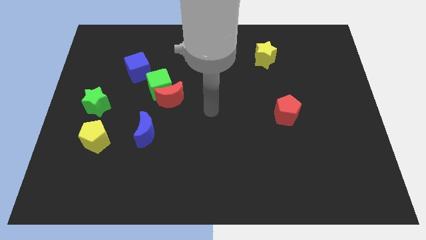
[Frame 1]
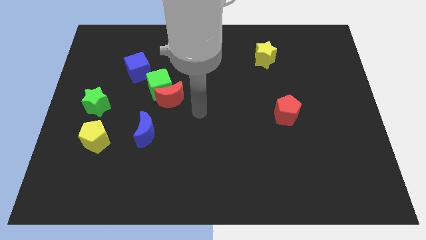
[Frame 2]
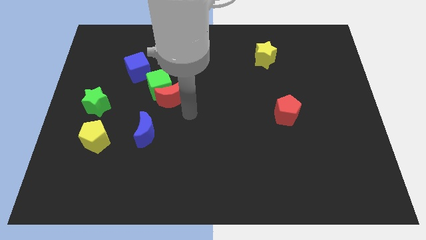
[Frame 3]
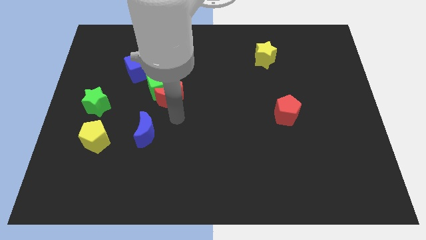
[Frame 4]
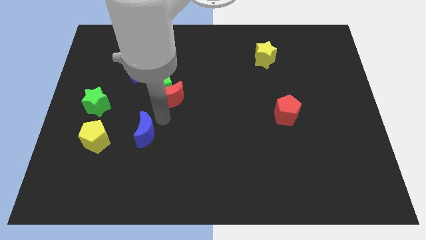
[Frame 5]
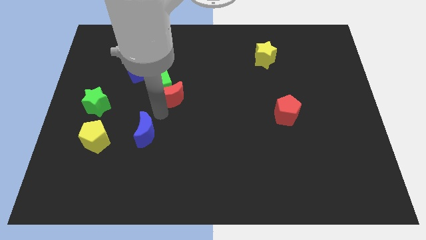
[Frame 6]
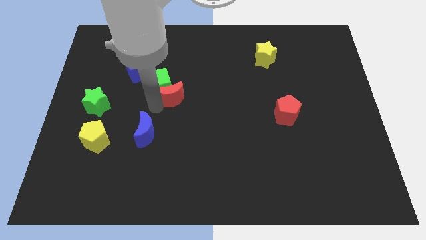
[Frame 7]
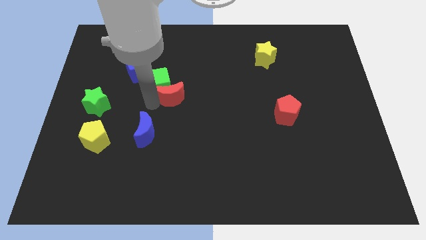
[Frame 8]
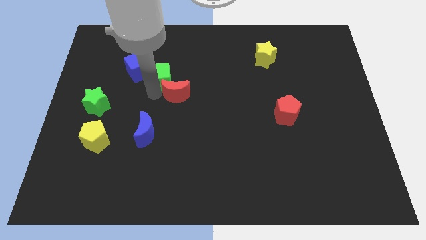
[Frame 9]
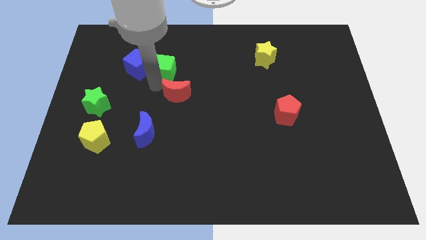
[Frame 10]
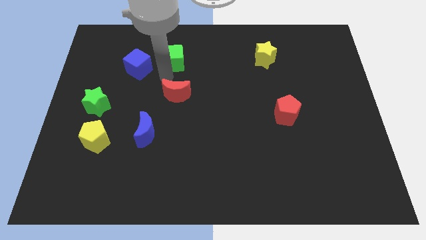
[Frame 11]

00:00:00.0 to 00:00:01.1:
move the red moon away from the green cube

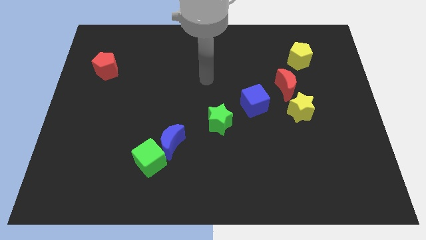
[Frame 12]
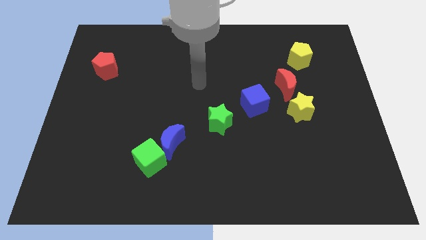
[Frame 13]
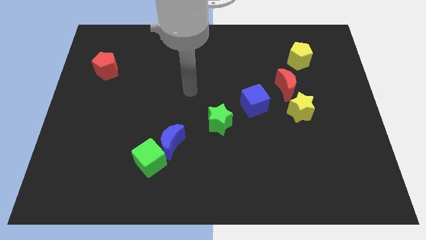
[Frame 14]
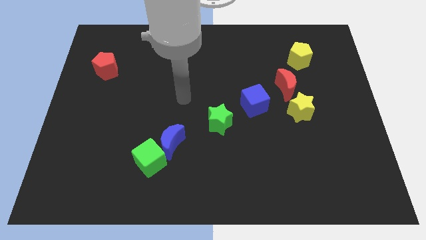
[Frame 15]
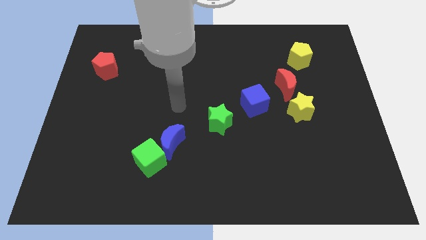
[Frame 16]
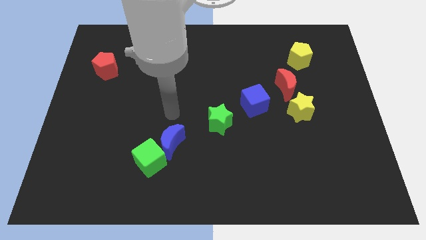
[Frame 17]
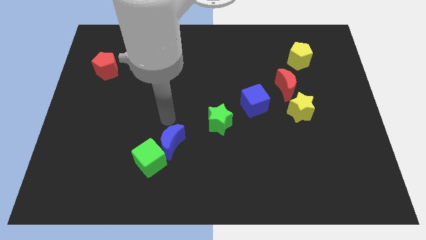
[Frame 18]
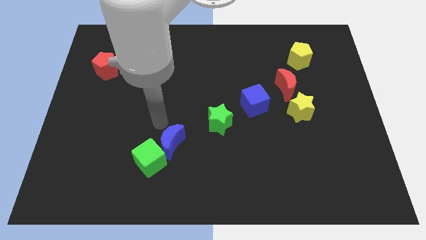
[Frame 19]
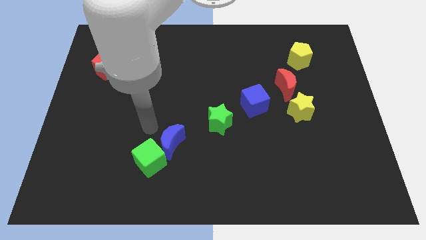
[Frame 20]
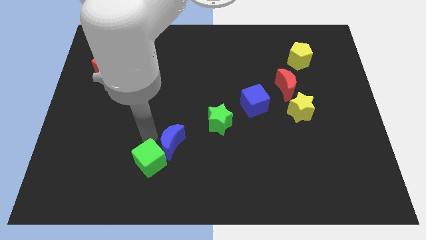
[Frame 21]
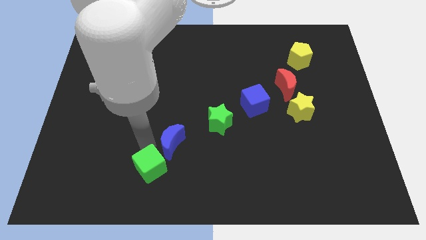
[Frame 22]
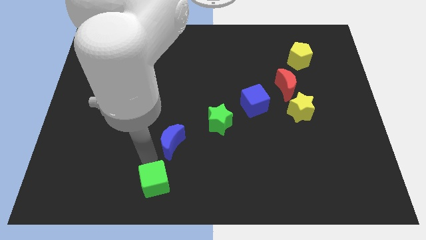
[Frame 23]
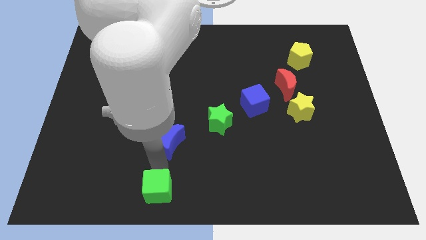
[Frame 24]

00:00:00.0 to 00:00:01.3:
move the blue moon away from the green cube

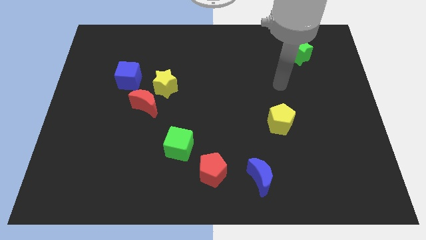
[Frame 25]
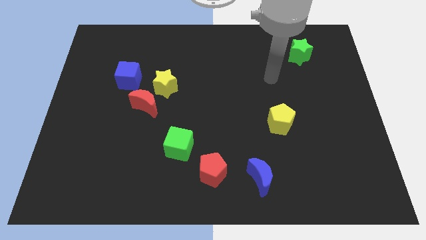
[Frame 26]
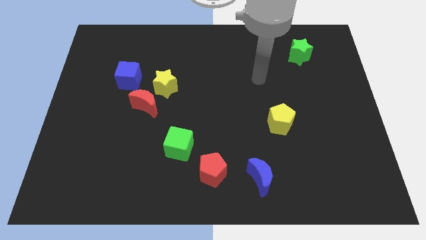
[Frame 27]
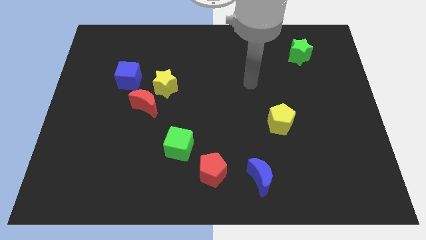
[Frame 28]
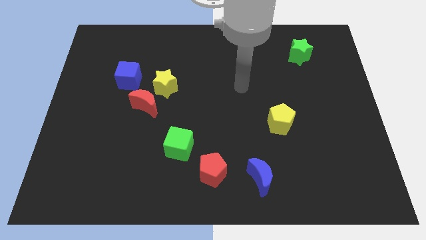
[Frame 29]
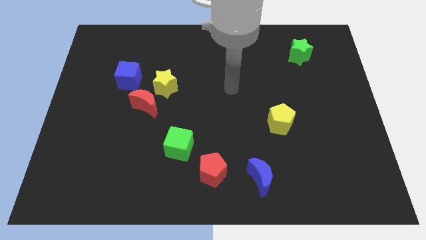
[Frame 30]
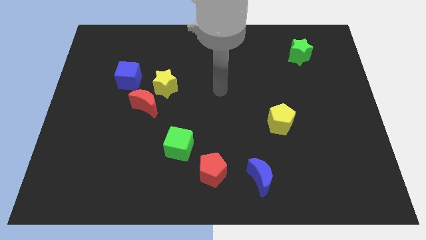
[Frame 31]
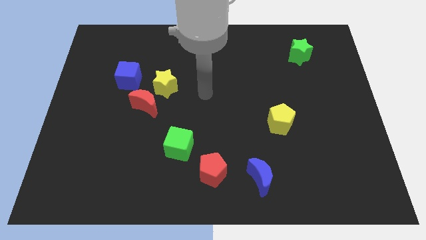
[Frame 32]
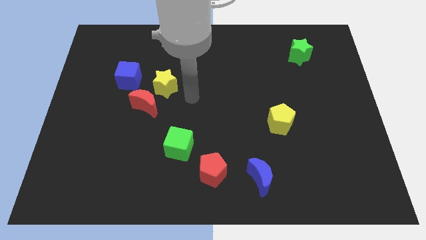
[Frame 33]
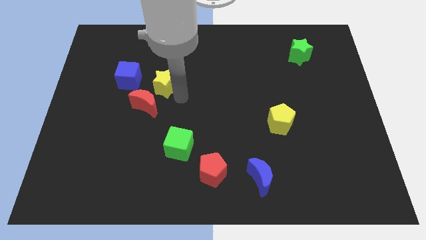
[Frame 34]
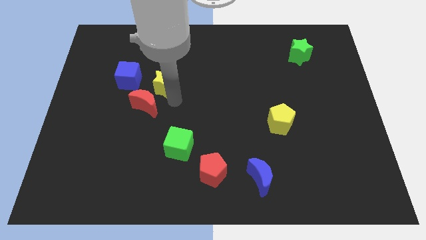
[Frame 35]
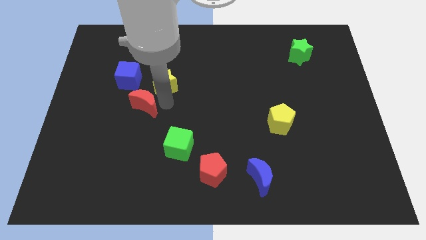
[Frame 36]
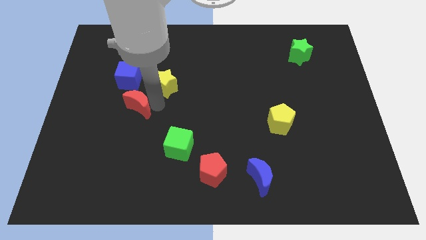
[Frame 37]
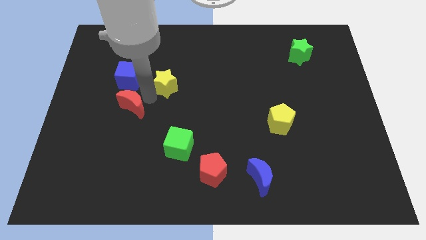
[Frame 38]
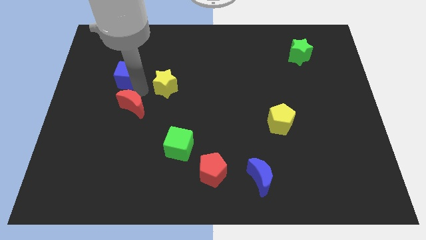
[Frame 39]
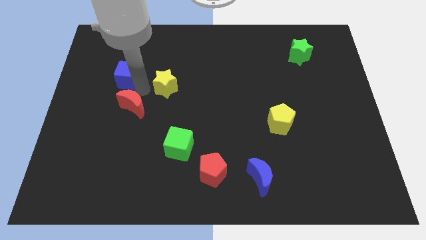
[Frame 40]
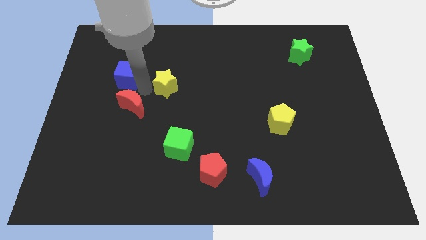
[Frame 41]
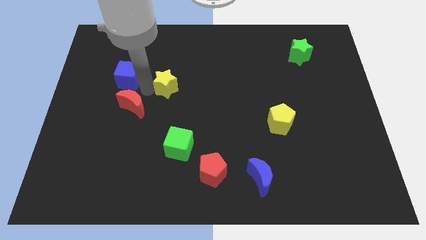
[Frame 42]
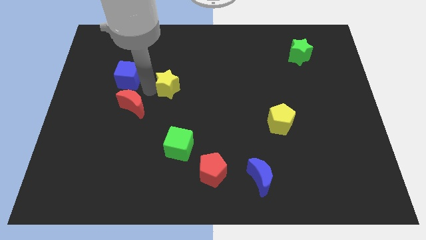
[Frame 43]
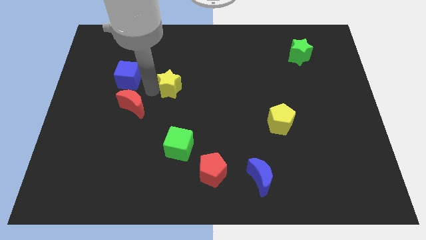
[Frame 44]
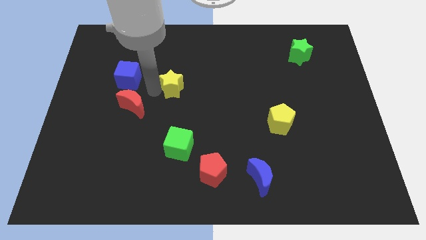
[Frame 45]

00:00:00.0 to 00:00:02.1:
move the yellow star away from the red moon and blue cube

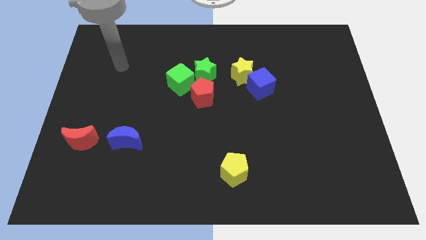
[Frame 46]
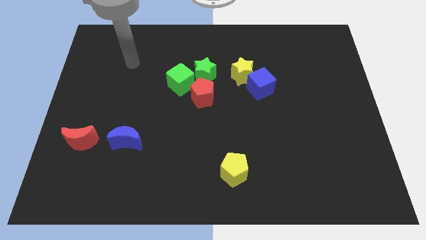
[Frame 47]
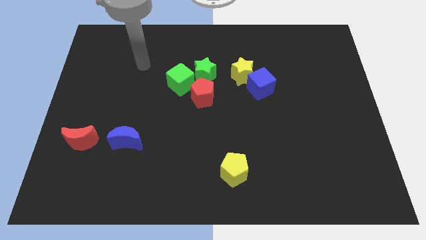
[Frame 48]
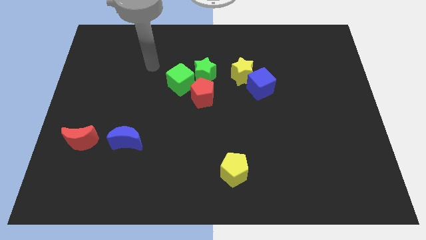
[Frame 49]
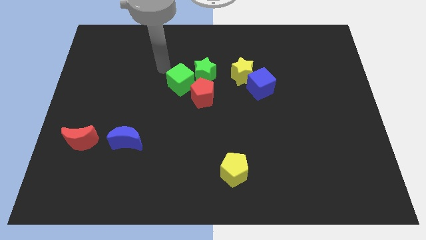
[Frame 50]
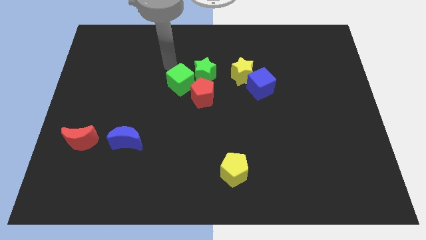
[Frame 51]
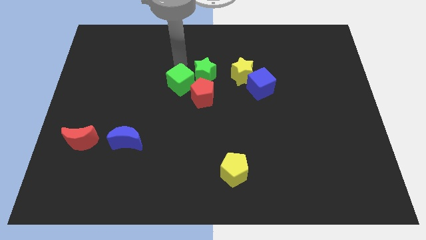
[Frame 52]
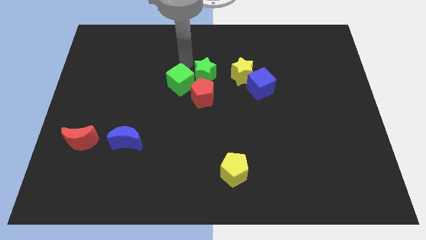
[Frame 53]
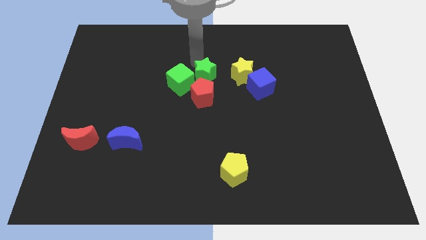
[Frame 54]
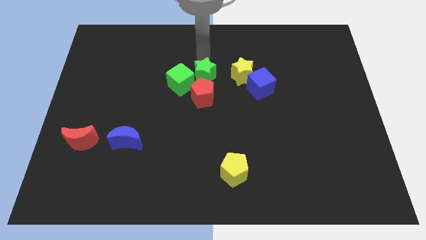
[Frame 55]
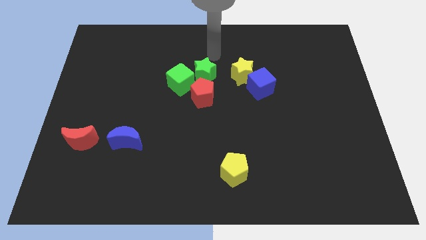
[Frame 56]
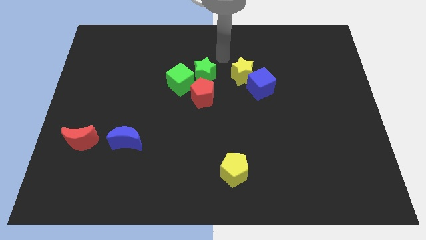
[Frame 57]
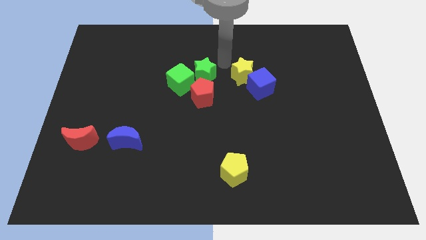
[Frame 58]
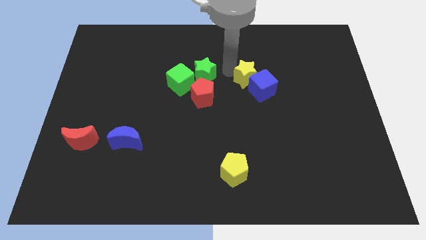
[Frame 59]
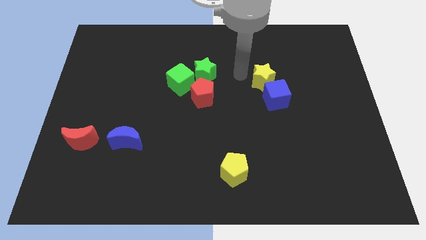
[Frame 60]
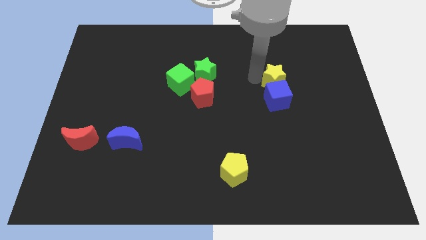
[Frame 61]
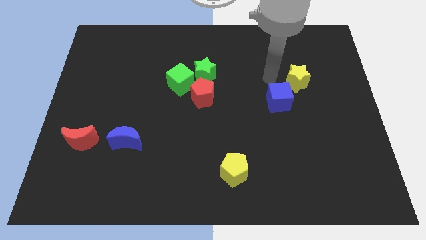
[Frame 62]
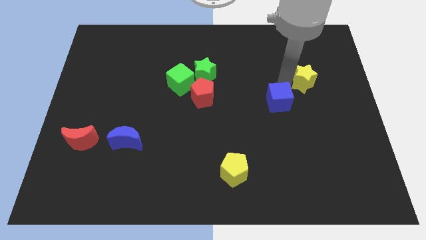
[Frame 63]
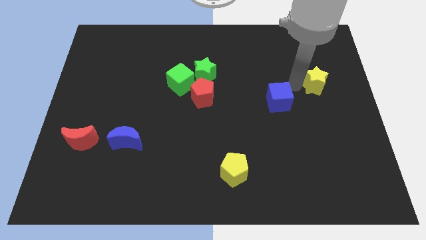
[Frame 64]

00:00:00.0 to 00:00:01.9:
pull the blue cube apart from the yellow star

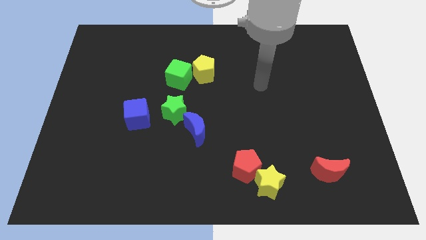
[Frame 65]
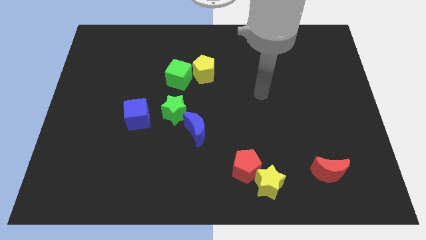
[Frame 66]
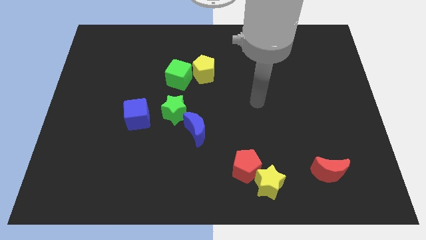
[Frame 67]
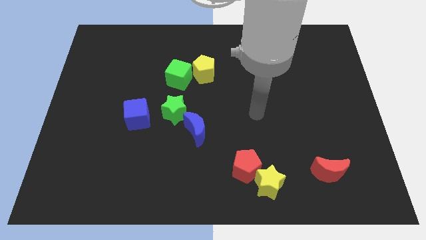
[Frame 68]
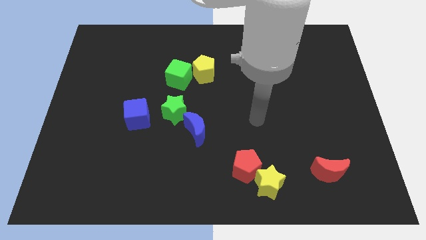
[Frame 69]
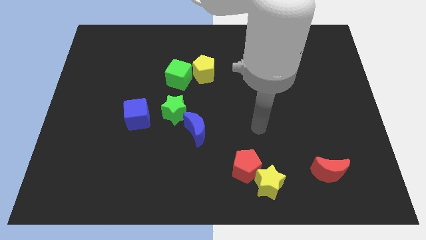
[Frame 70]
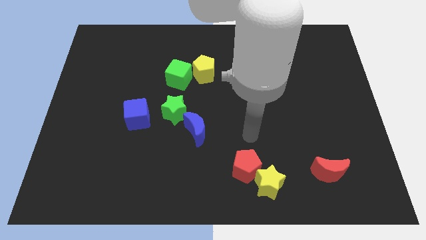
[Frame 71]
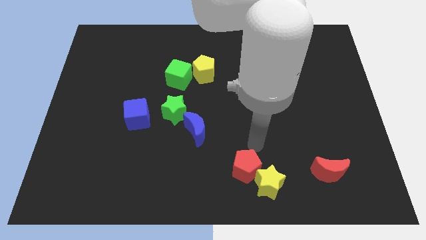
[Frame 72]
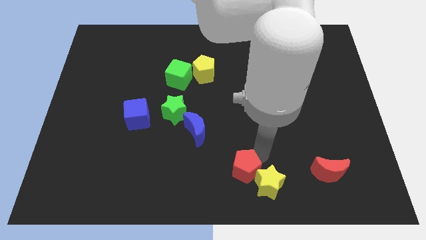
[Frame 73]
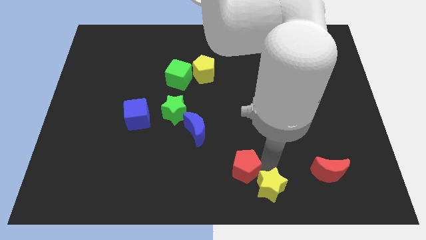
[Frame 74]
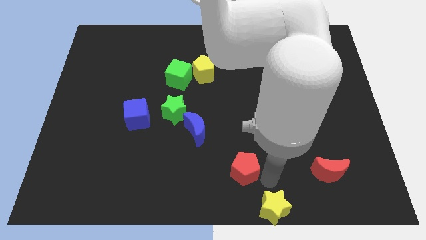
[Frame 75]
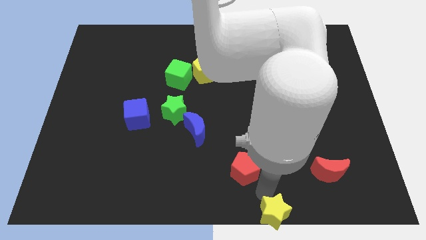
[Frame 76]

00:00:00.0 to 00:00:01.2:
pull the red pentagon apart from the yellow star

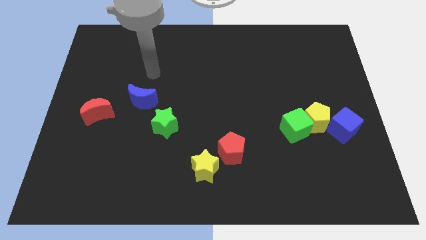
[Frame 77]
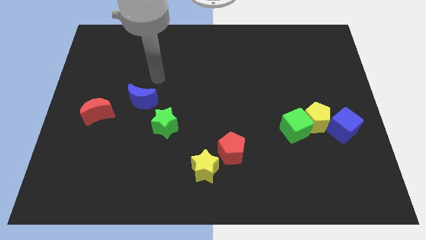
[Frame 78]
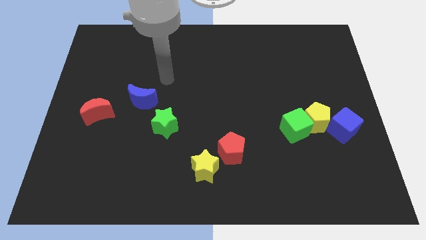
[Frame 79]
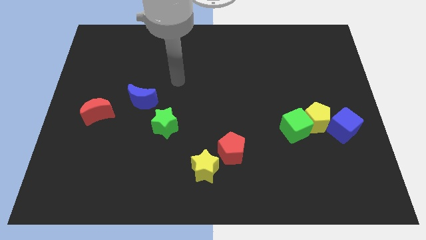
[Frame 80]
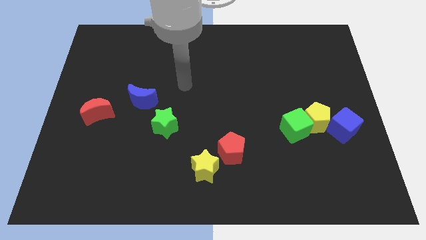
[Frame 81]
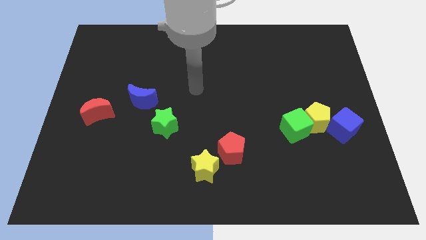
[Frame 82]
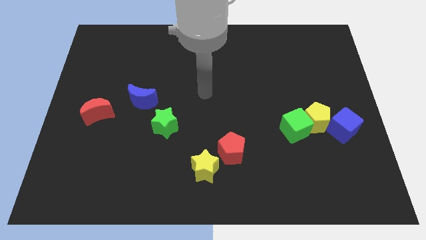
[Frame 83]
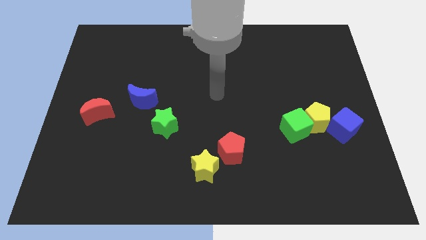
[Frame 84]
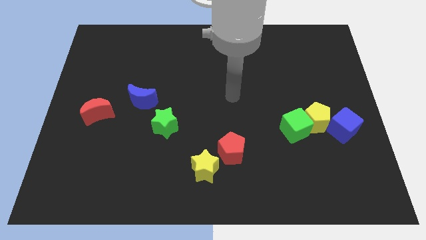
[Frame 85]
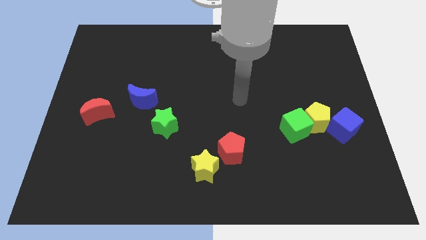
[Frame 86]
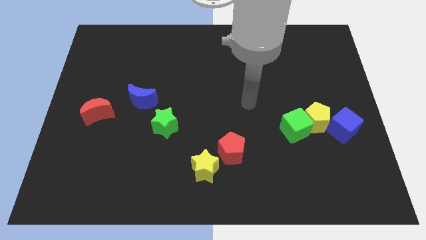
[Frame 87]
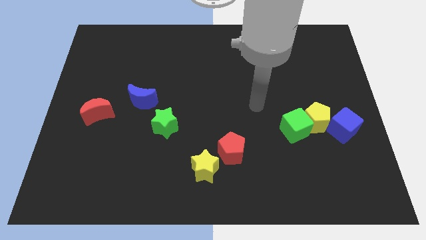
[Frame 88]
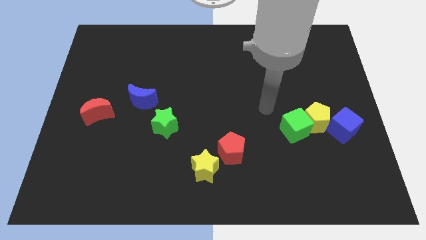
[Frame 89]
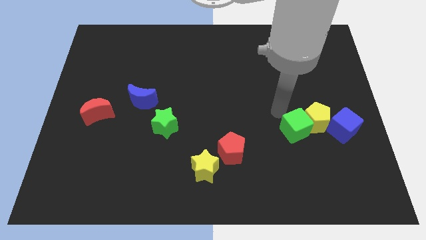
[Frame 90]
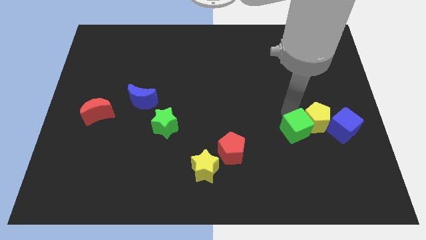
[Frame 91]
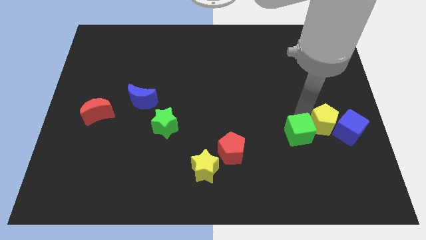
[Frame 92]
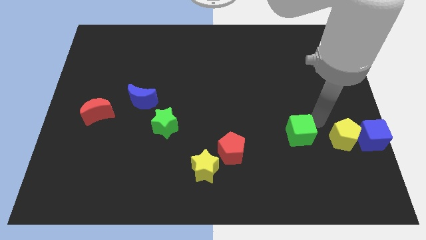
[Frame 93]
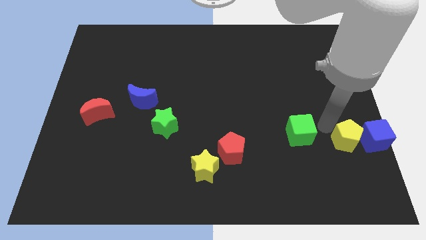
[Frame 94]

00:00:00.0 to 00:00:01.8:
pull the green cube apart from the yellow pentagon
